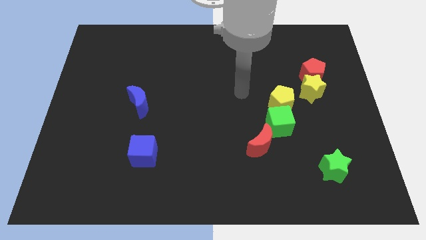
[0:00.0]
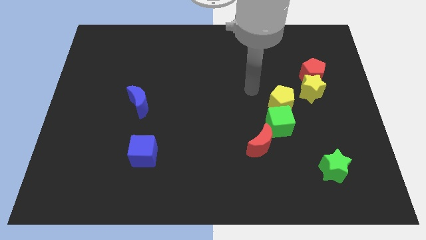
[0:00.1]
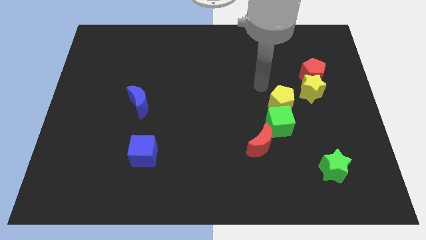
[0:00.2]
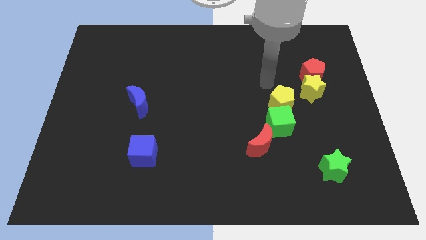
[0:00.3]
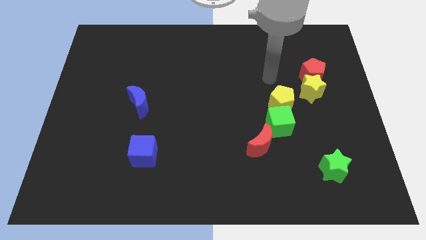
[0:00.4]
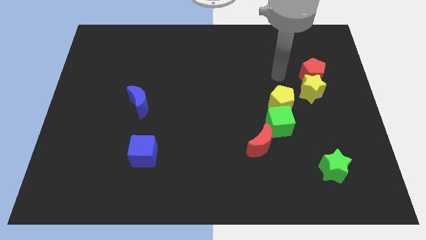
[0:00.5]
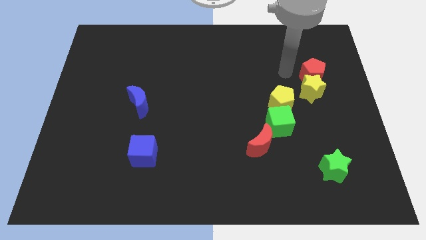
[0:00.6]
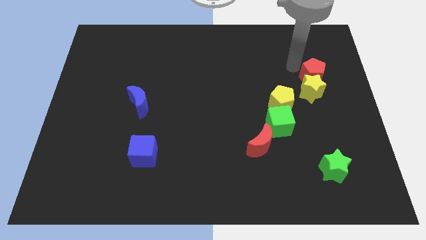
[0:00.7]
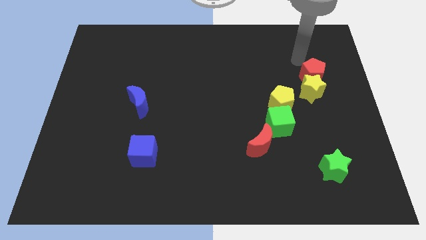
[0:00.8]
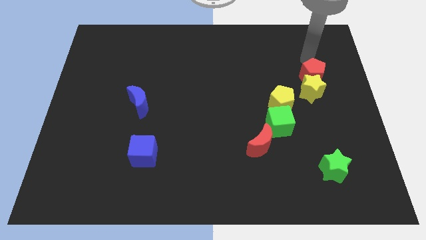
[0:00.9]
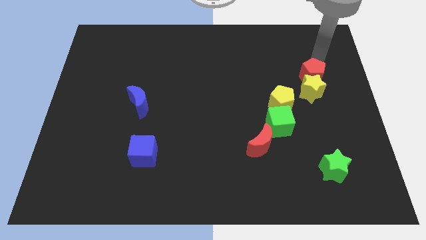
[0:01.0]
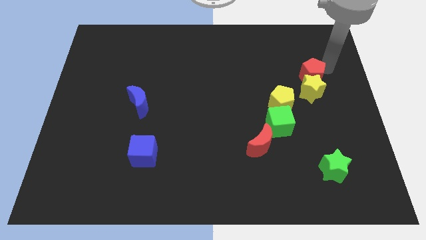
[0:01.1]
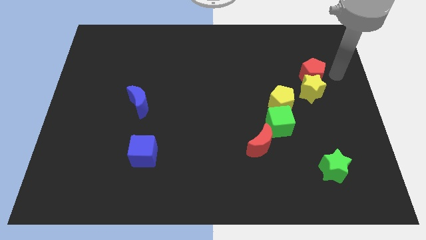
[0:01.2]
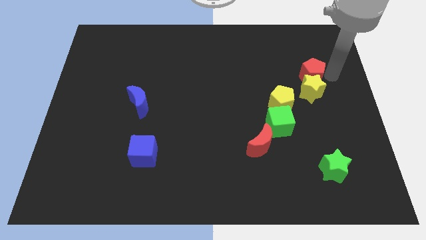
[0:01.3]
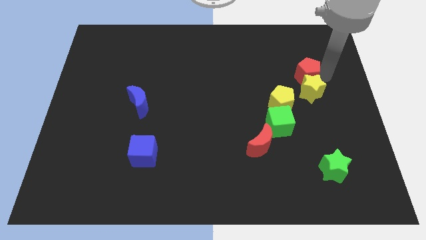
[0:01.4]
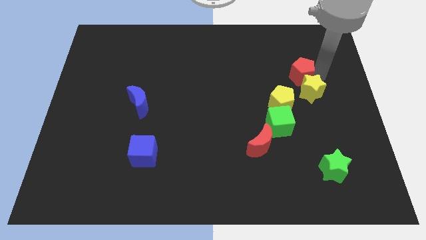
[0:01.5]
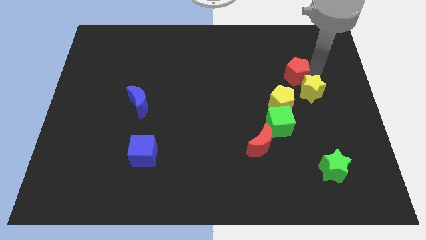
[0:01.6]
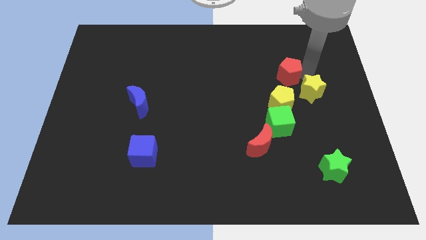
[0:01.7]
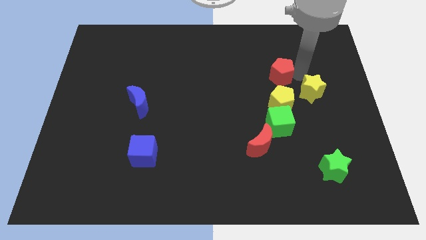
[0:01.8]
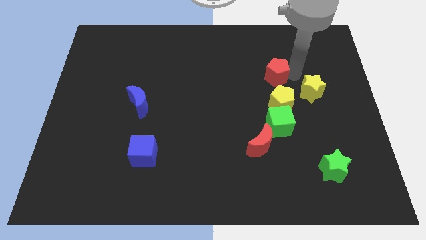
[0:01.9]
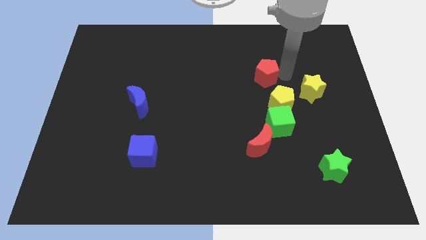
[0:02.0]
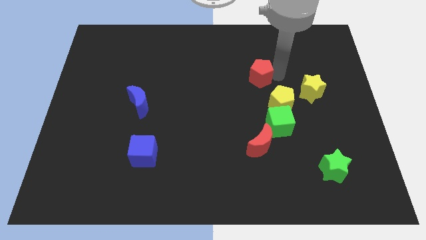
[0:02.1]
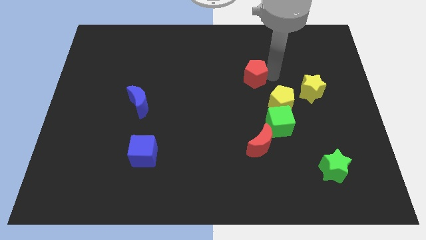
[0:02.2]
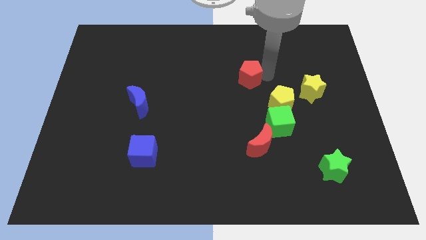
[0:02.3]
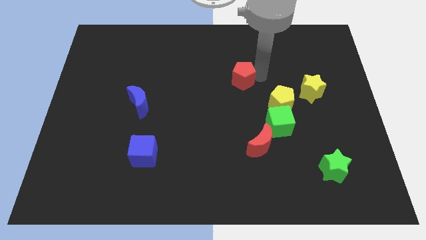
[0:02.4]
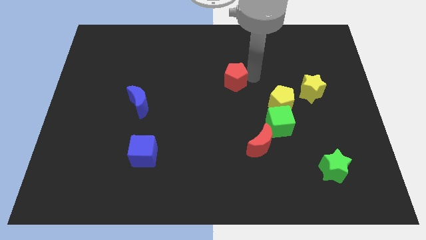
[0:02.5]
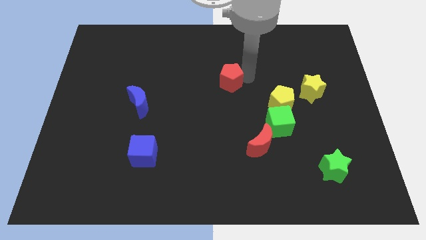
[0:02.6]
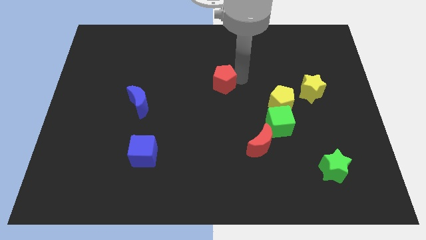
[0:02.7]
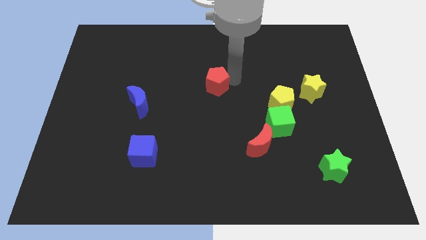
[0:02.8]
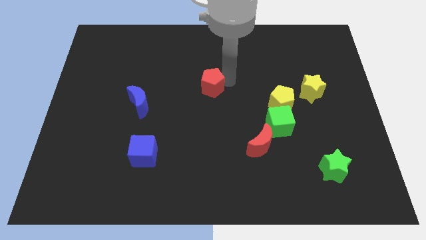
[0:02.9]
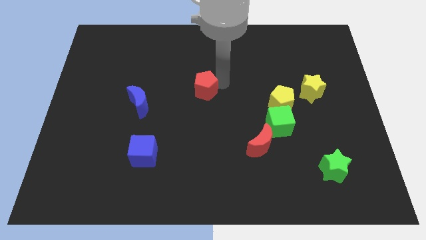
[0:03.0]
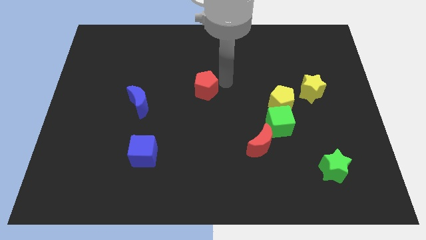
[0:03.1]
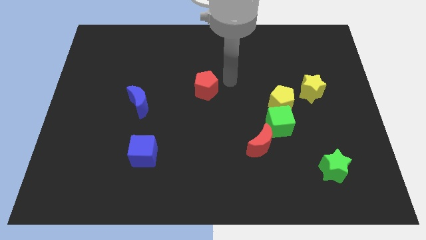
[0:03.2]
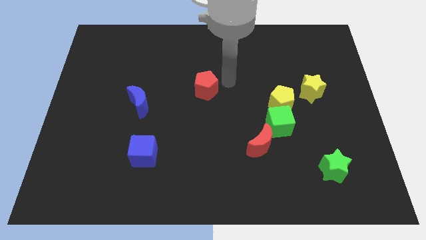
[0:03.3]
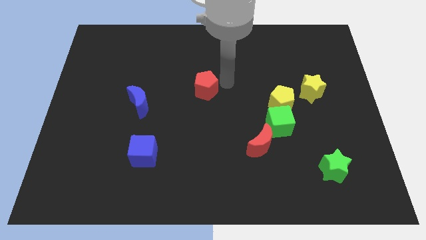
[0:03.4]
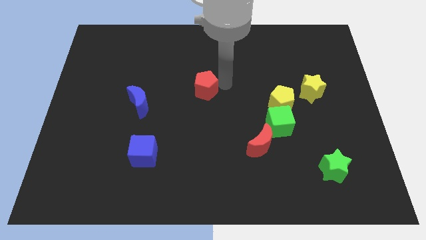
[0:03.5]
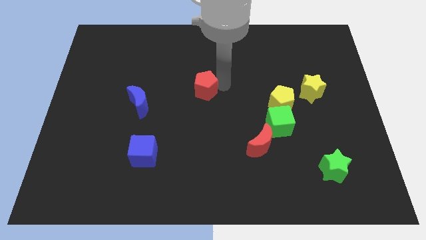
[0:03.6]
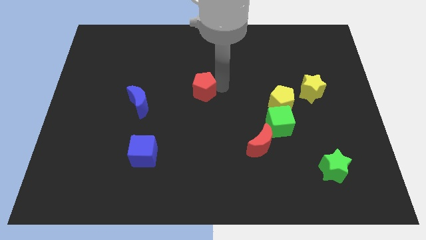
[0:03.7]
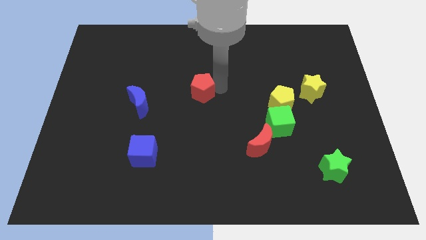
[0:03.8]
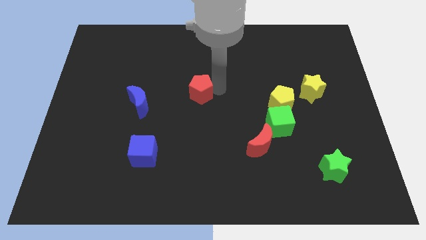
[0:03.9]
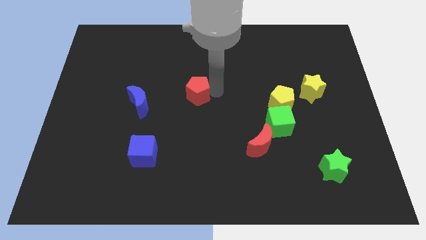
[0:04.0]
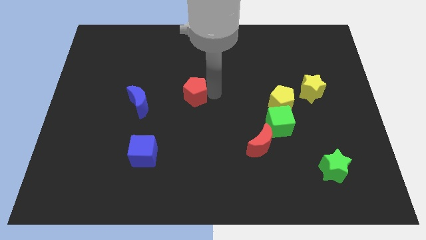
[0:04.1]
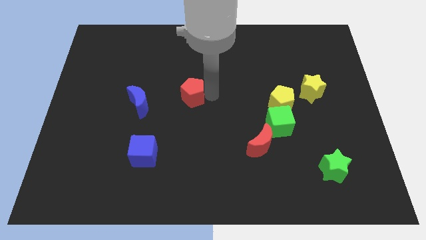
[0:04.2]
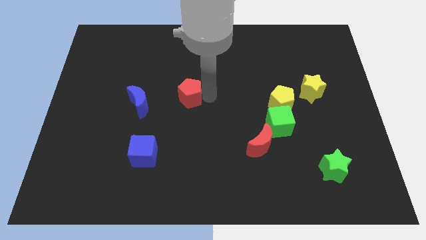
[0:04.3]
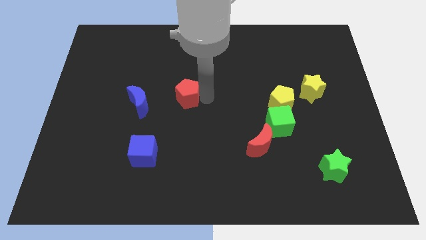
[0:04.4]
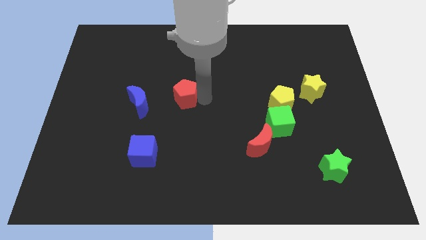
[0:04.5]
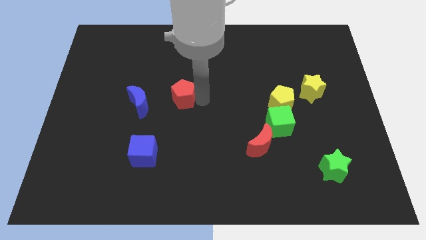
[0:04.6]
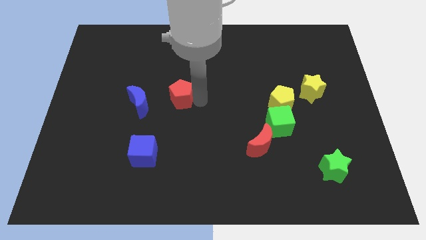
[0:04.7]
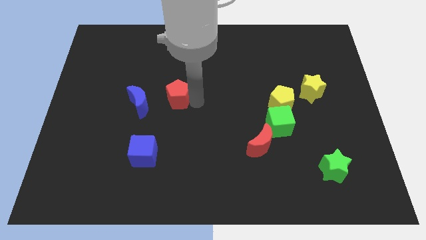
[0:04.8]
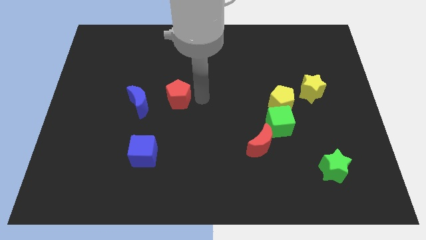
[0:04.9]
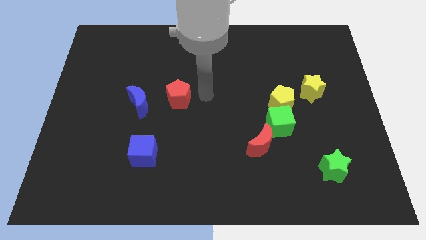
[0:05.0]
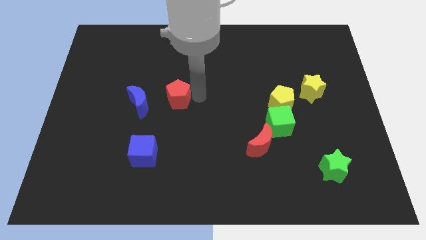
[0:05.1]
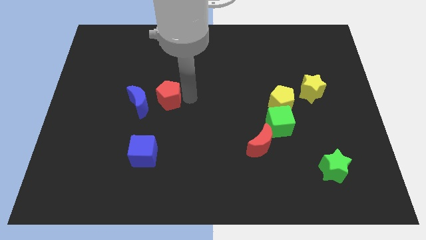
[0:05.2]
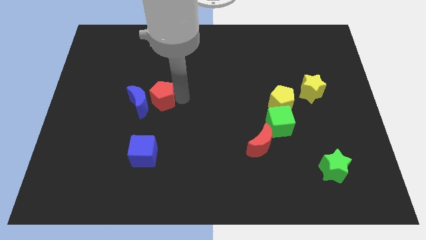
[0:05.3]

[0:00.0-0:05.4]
push the red pentagon close to the blue moon
